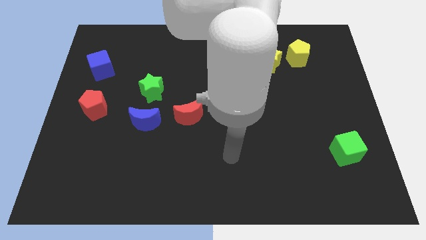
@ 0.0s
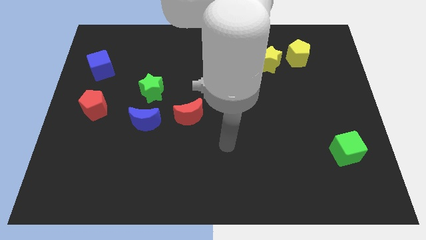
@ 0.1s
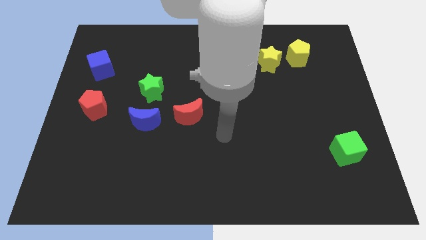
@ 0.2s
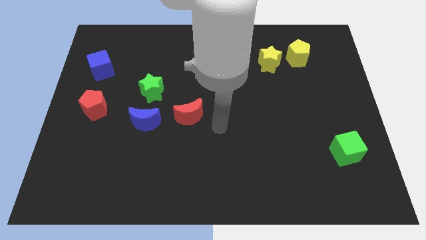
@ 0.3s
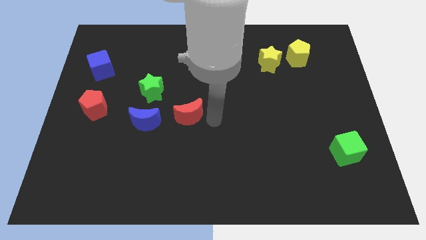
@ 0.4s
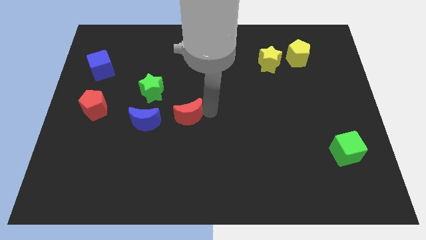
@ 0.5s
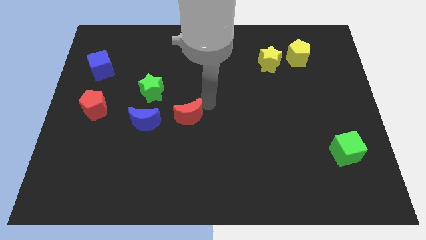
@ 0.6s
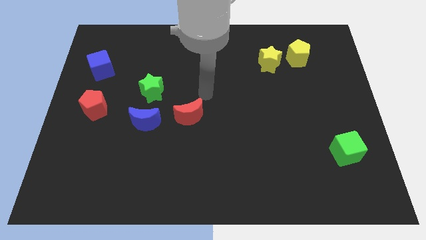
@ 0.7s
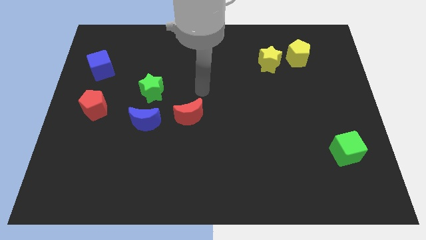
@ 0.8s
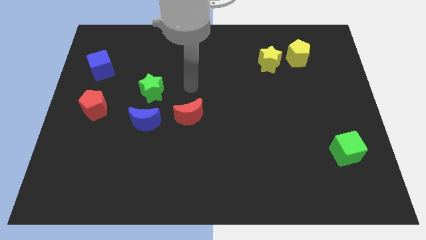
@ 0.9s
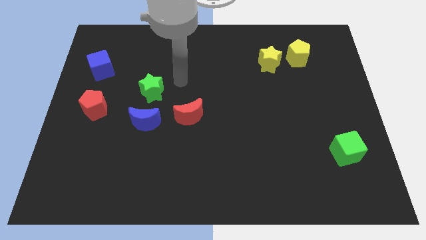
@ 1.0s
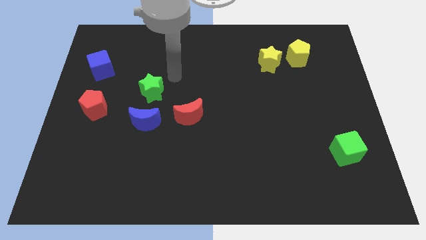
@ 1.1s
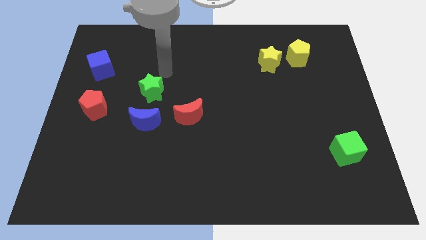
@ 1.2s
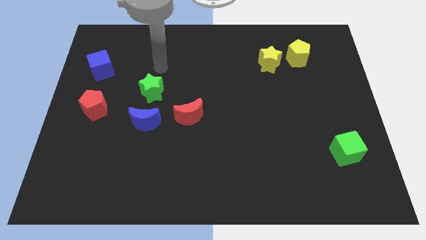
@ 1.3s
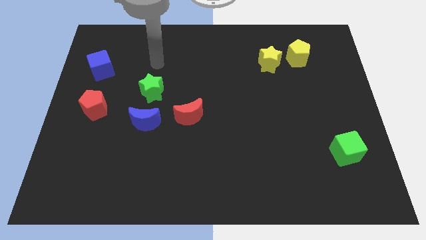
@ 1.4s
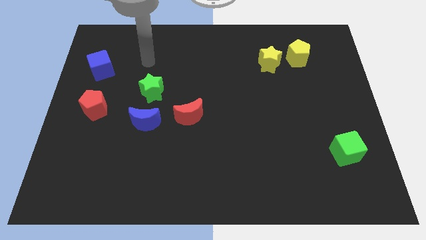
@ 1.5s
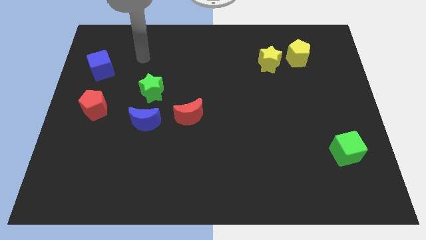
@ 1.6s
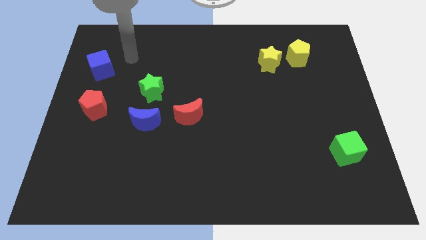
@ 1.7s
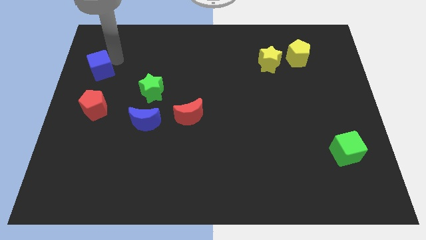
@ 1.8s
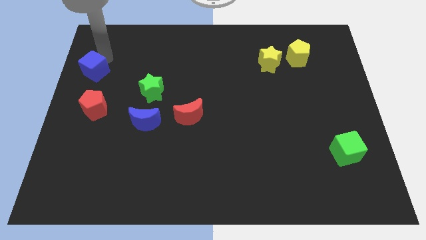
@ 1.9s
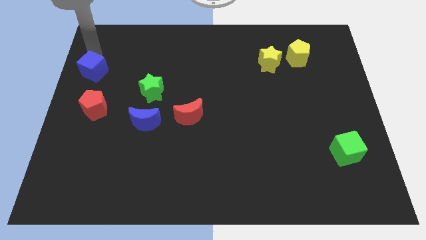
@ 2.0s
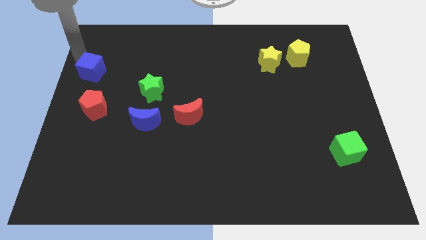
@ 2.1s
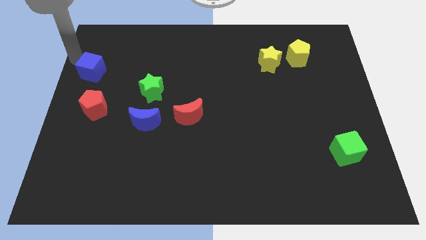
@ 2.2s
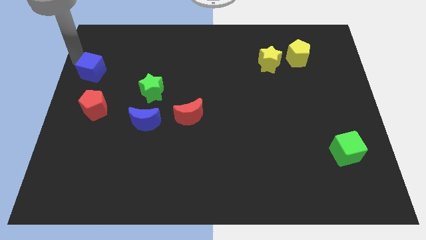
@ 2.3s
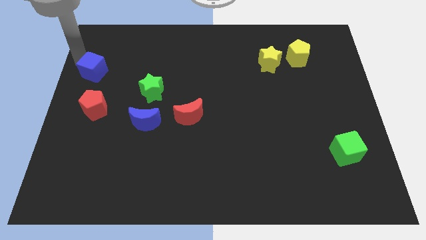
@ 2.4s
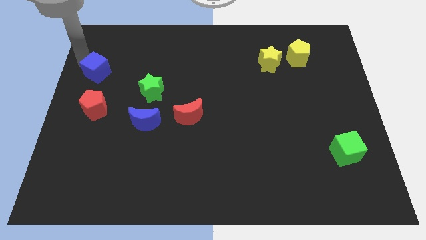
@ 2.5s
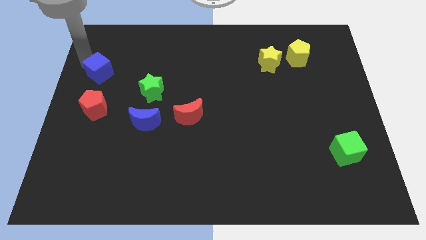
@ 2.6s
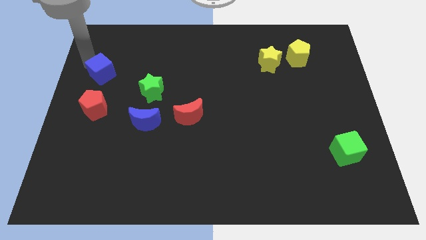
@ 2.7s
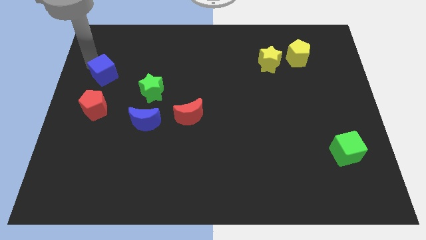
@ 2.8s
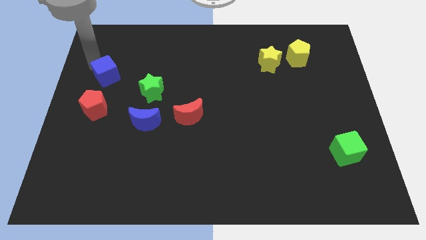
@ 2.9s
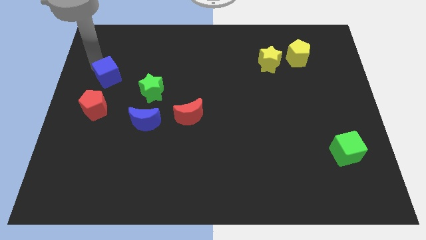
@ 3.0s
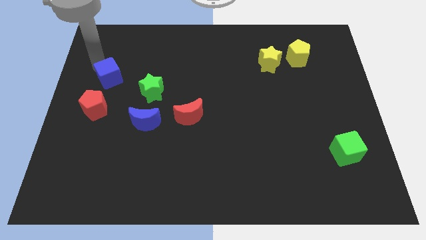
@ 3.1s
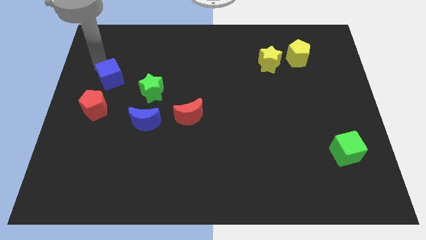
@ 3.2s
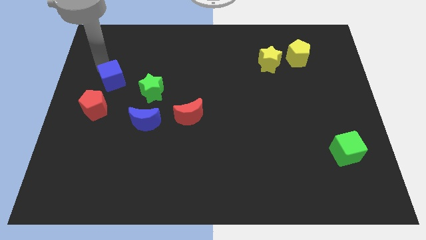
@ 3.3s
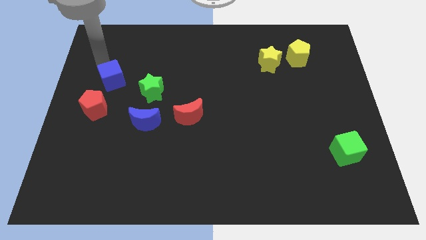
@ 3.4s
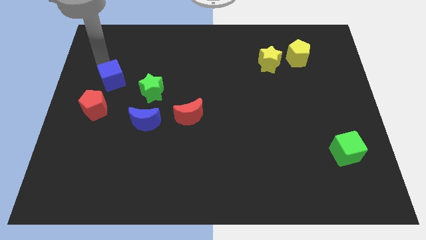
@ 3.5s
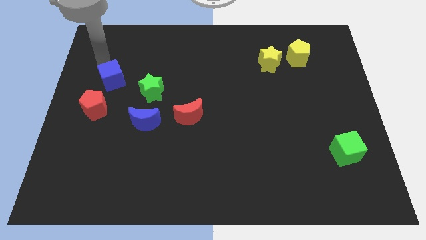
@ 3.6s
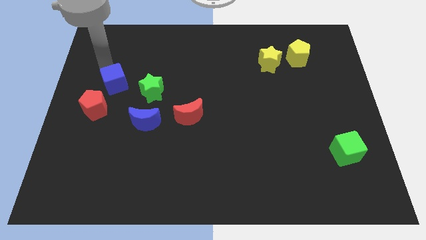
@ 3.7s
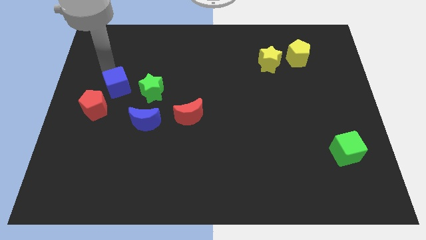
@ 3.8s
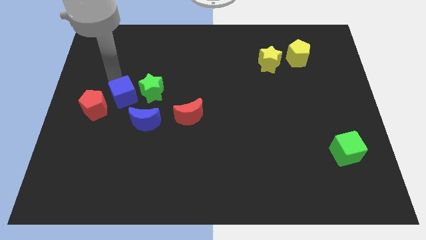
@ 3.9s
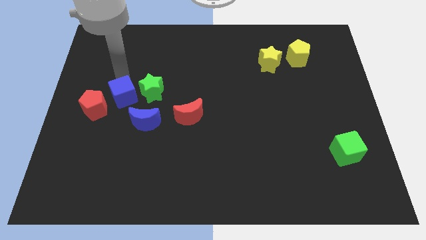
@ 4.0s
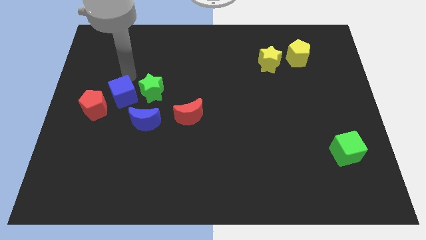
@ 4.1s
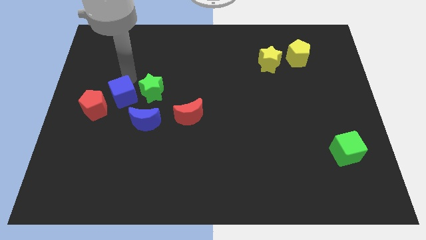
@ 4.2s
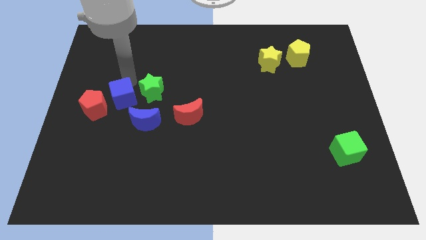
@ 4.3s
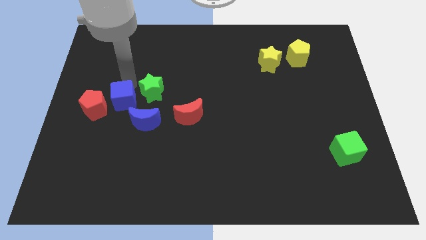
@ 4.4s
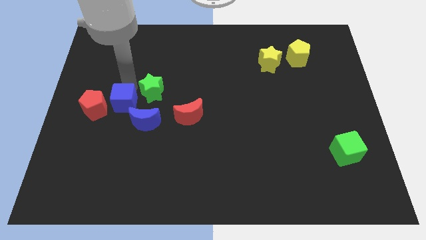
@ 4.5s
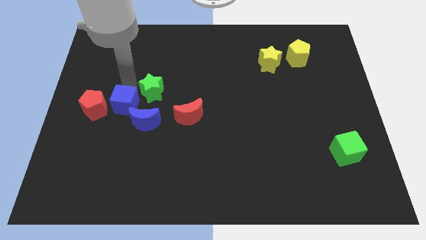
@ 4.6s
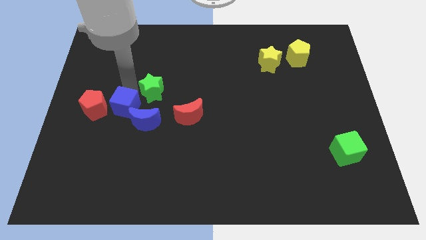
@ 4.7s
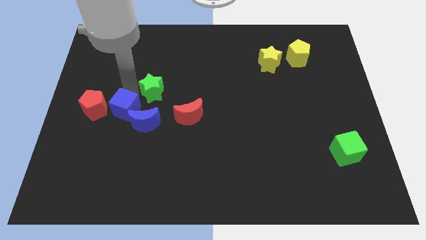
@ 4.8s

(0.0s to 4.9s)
put the blue cube to the bottom right of the red pentagon

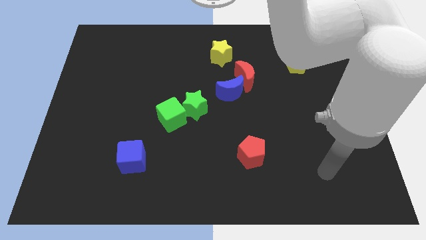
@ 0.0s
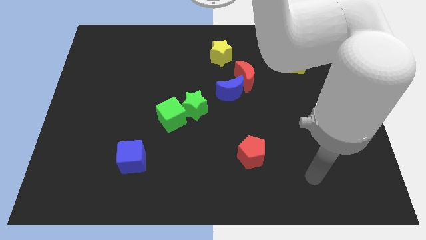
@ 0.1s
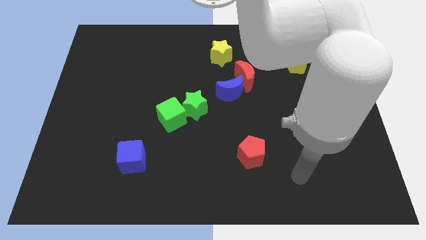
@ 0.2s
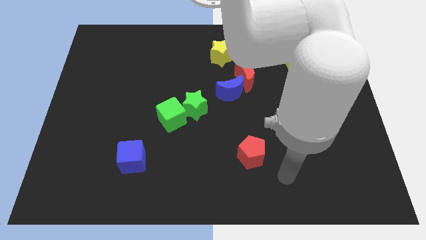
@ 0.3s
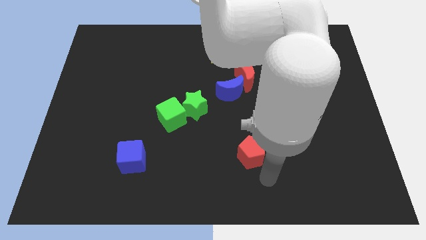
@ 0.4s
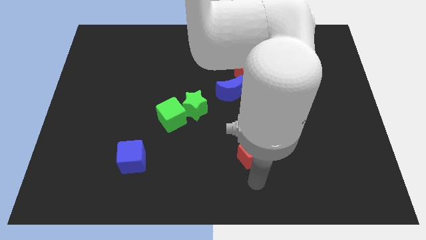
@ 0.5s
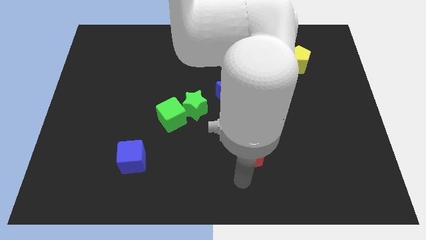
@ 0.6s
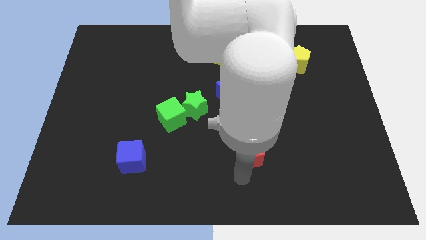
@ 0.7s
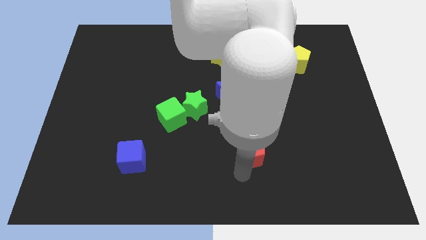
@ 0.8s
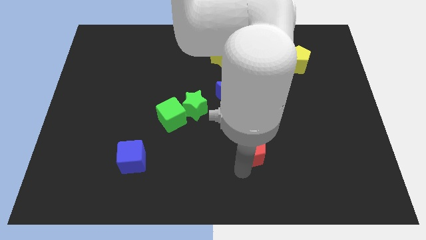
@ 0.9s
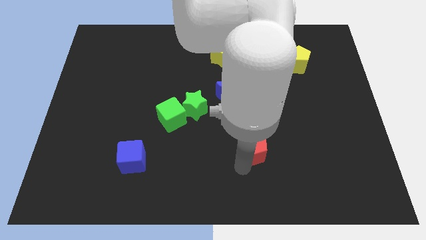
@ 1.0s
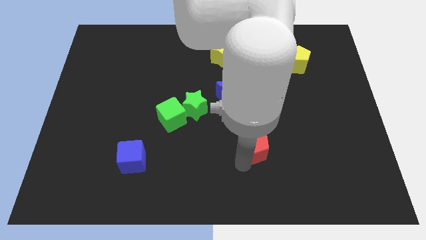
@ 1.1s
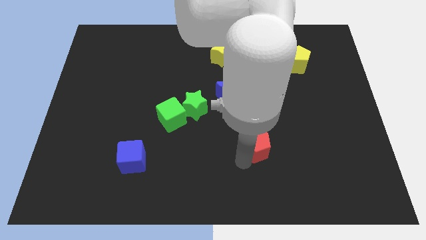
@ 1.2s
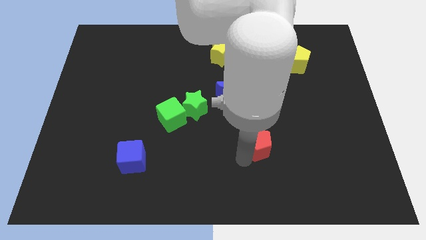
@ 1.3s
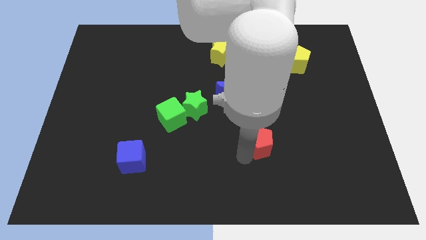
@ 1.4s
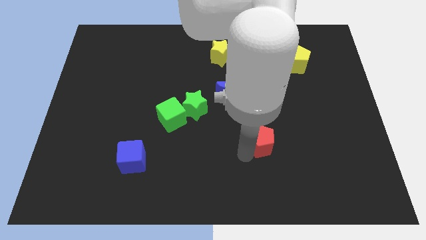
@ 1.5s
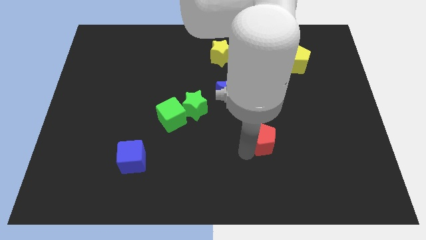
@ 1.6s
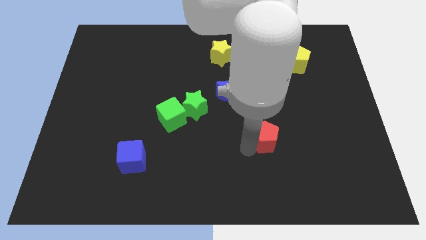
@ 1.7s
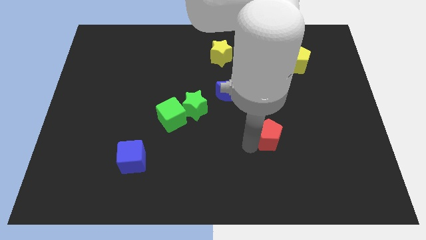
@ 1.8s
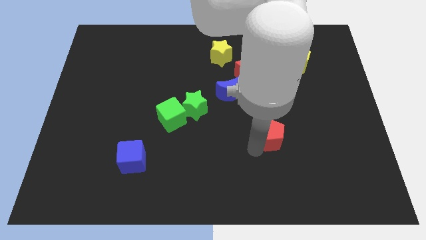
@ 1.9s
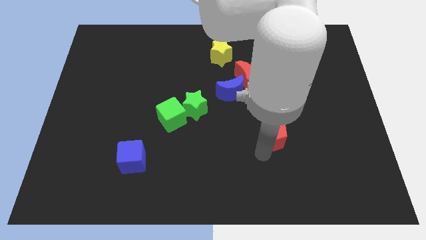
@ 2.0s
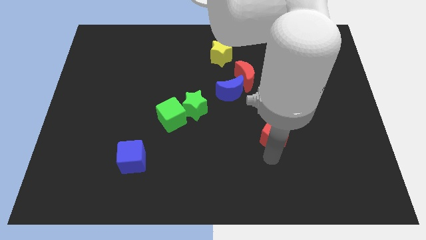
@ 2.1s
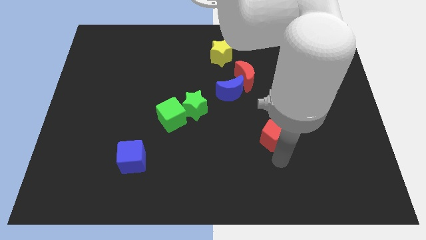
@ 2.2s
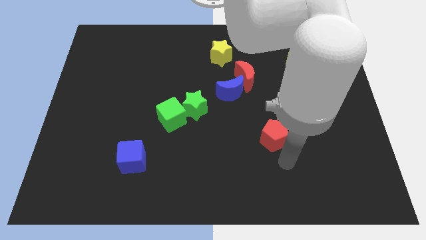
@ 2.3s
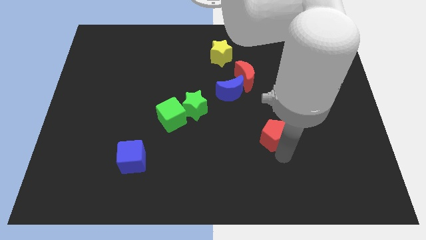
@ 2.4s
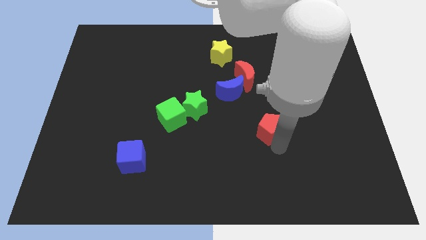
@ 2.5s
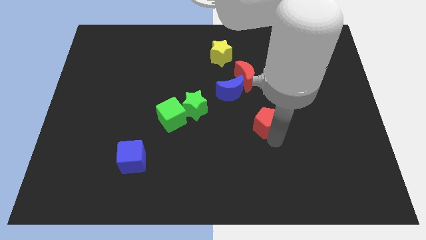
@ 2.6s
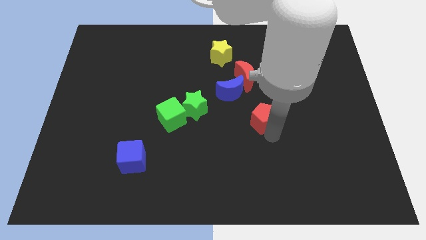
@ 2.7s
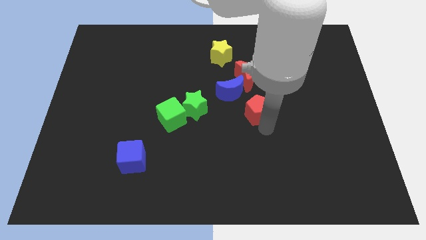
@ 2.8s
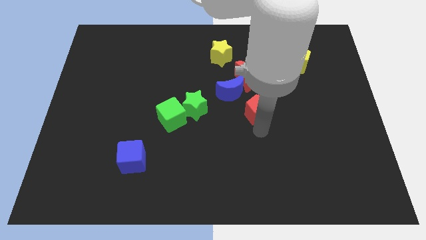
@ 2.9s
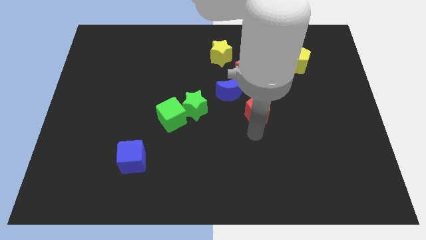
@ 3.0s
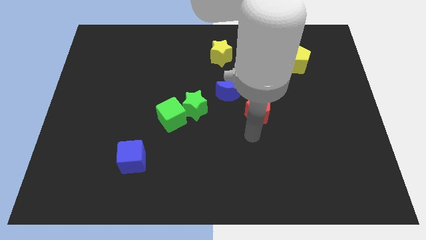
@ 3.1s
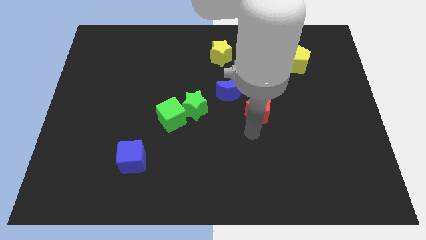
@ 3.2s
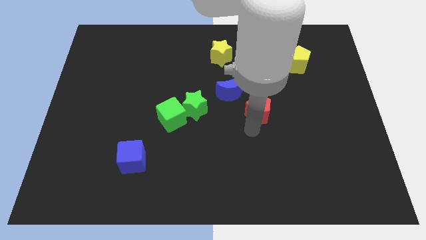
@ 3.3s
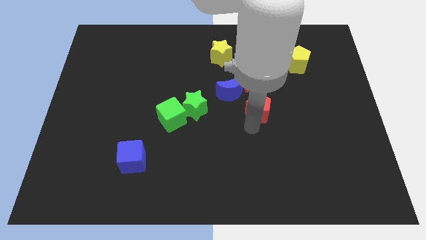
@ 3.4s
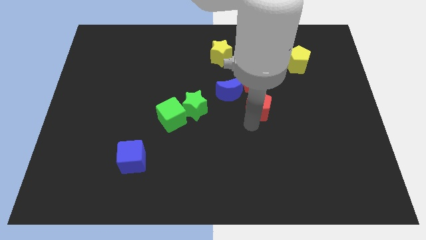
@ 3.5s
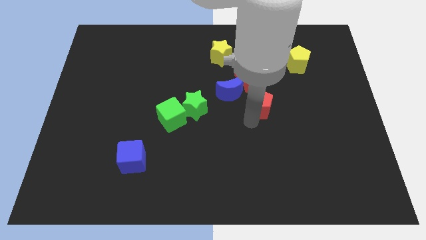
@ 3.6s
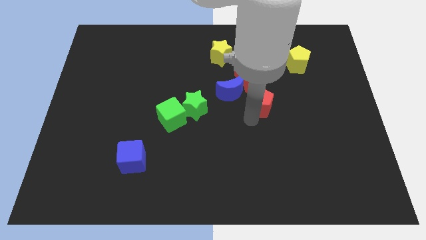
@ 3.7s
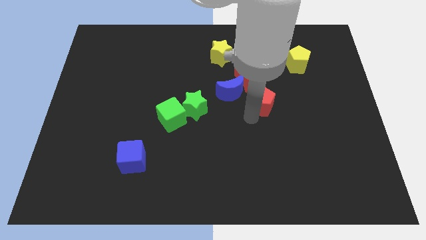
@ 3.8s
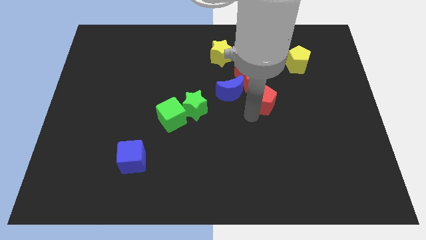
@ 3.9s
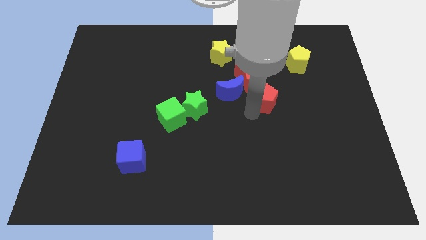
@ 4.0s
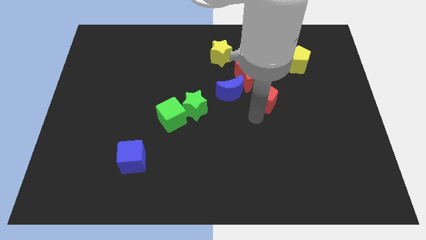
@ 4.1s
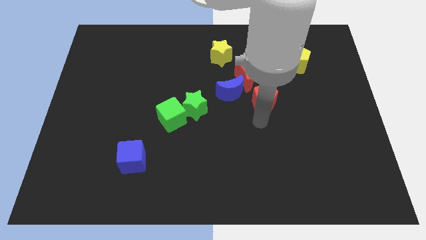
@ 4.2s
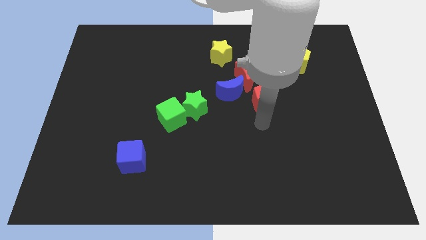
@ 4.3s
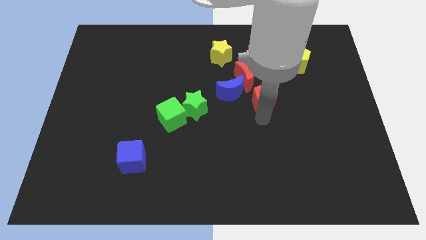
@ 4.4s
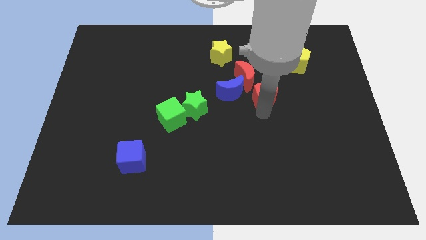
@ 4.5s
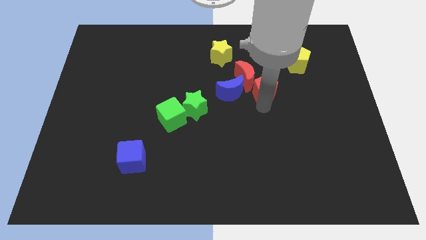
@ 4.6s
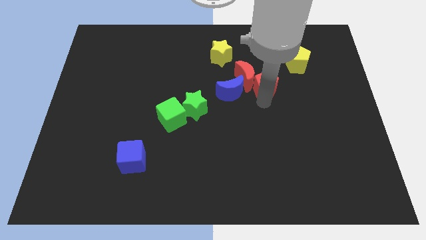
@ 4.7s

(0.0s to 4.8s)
put the red pentagon to the top right side of the blue moon
